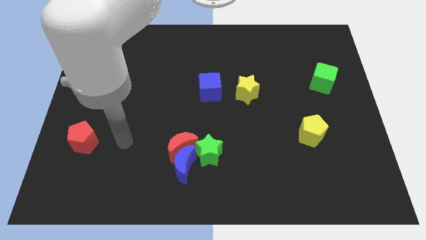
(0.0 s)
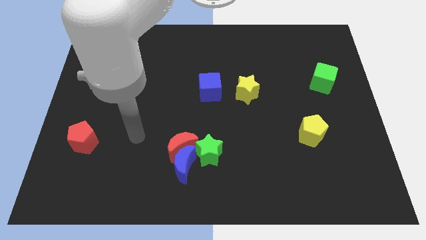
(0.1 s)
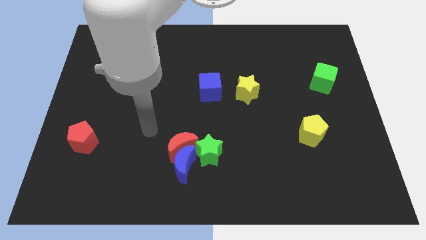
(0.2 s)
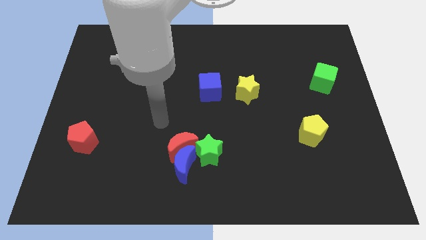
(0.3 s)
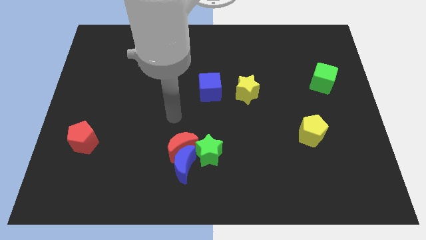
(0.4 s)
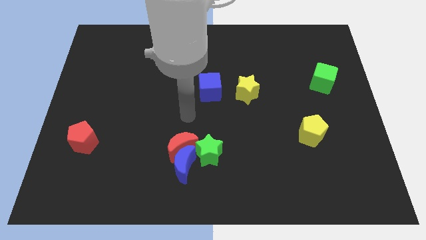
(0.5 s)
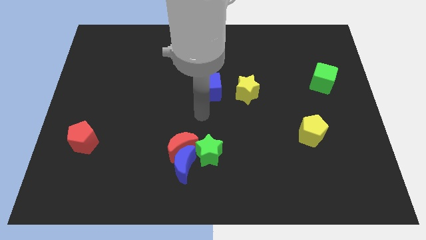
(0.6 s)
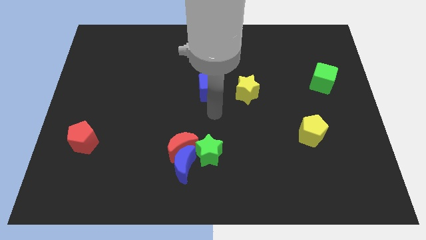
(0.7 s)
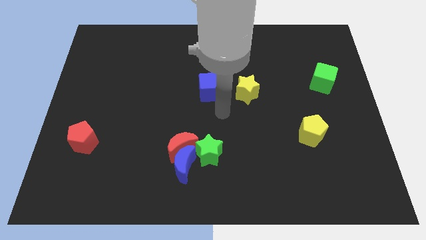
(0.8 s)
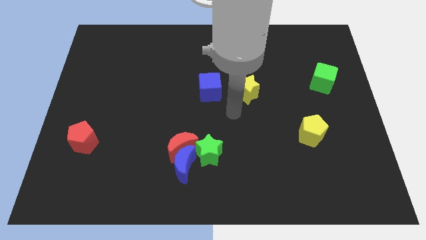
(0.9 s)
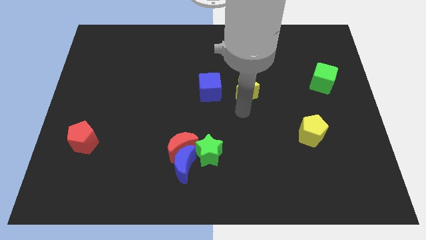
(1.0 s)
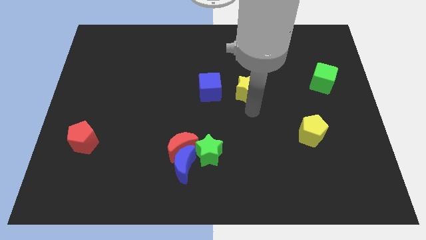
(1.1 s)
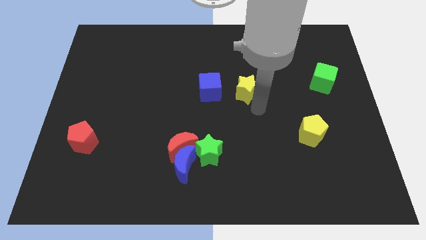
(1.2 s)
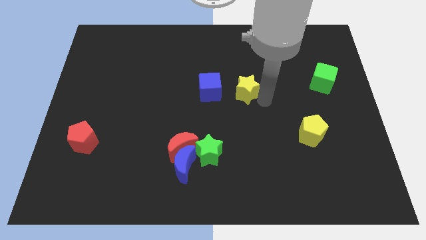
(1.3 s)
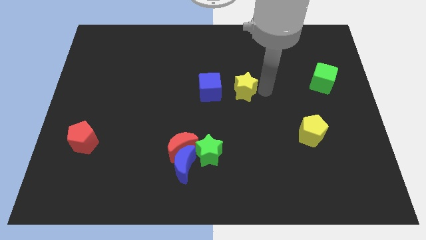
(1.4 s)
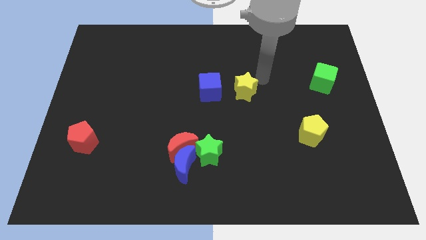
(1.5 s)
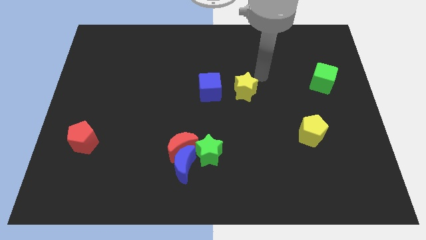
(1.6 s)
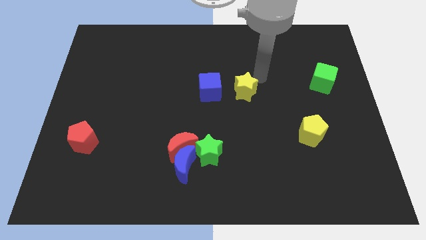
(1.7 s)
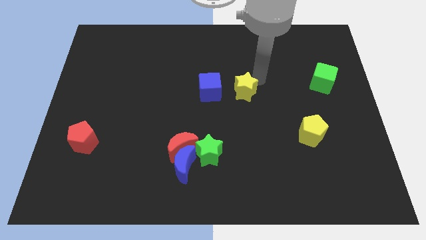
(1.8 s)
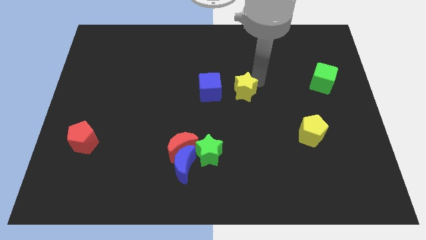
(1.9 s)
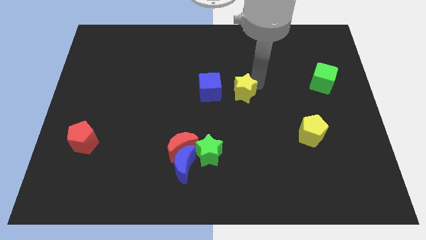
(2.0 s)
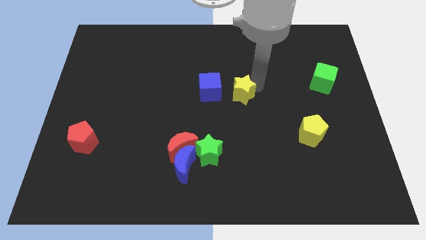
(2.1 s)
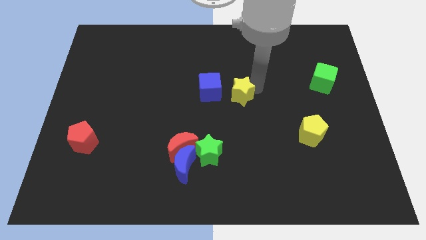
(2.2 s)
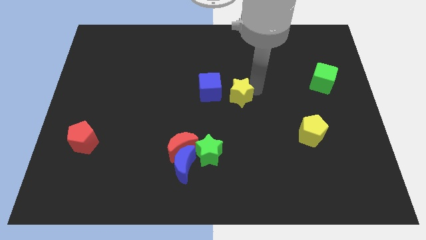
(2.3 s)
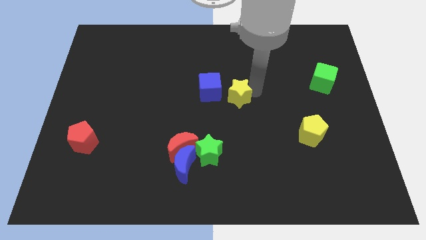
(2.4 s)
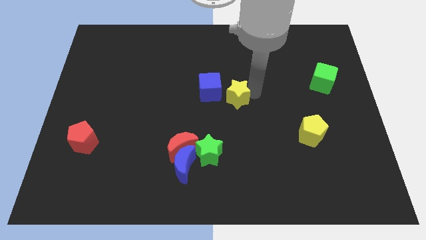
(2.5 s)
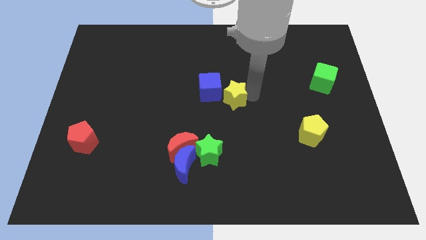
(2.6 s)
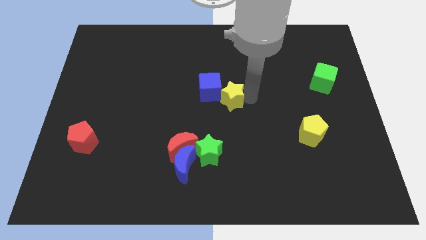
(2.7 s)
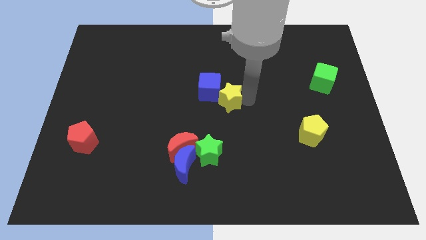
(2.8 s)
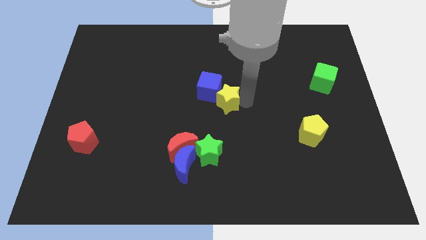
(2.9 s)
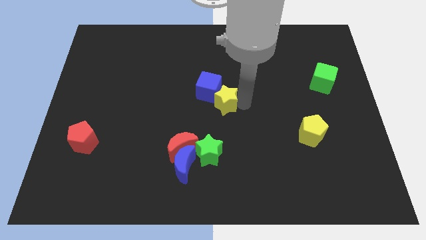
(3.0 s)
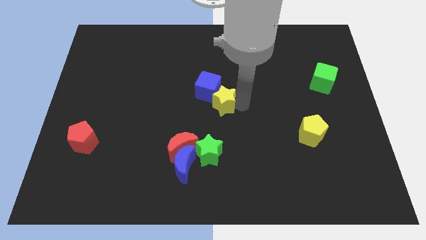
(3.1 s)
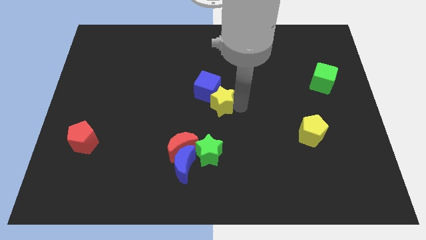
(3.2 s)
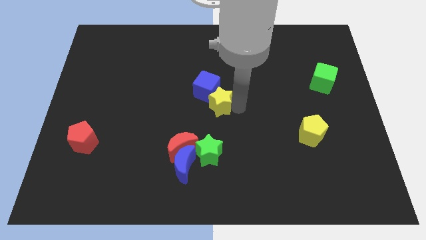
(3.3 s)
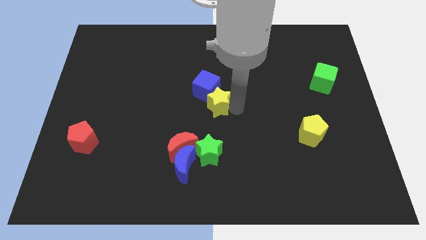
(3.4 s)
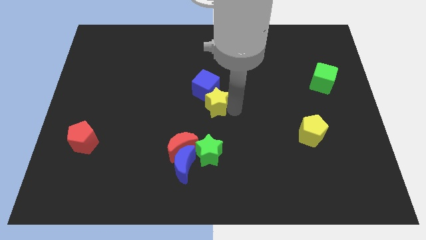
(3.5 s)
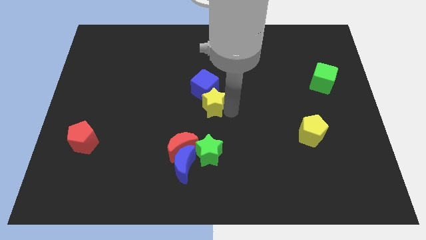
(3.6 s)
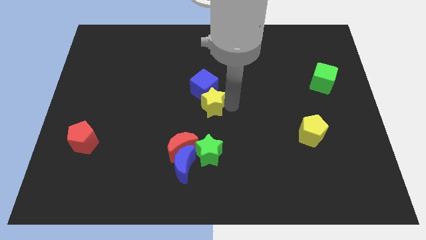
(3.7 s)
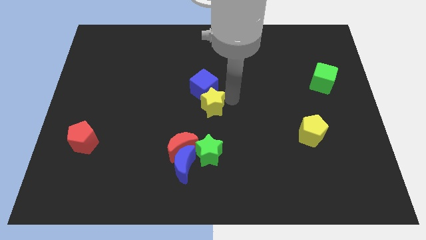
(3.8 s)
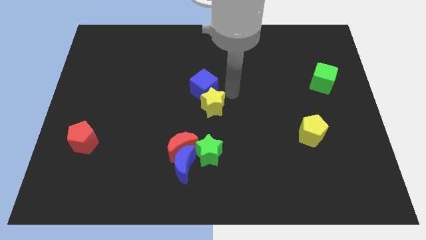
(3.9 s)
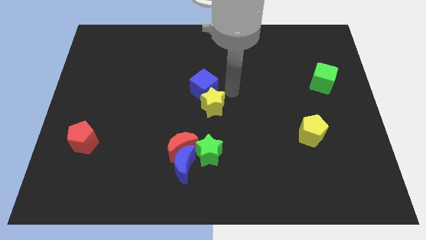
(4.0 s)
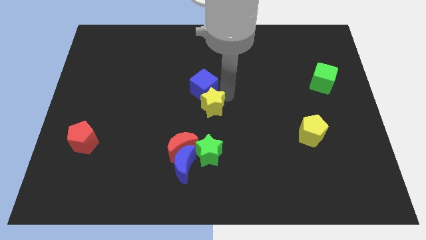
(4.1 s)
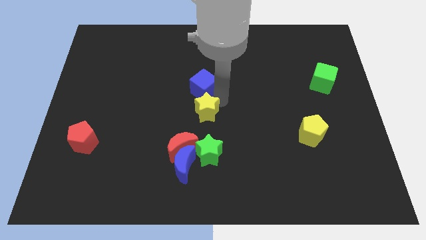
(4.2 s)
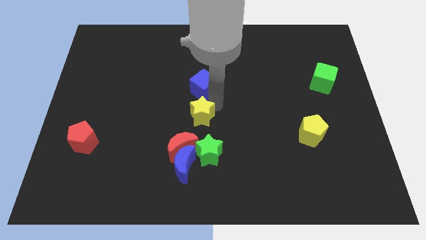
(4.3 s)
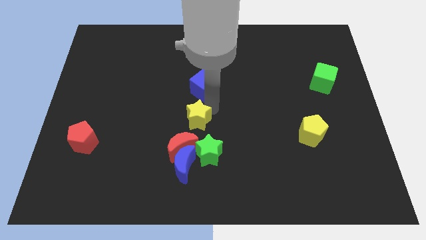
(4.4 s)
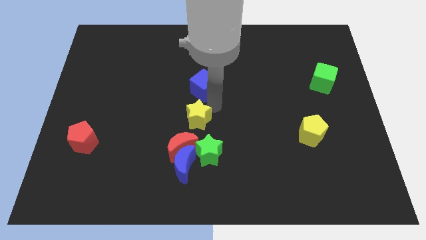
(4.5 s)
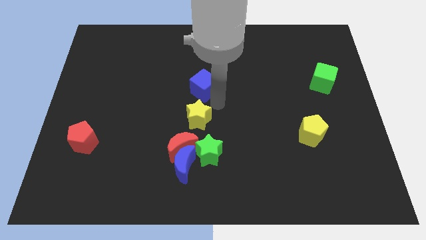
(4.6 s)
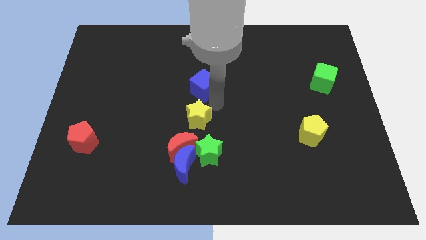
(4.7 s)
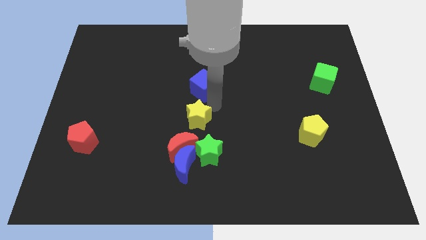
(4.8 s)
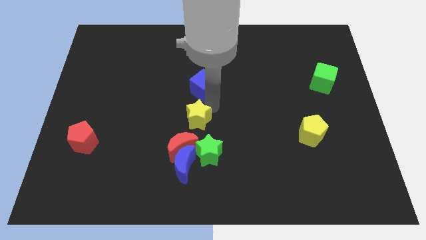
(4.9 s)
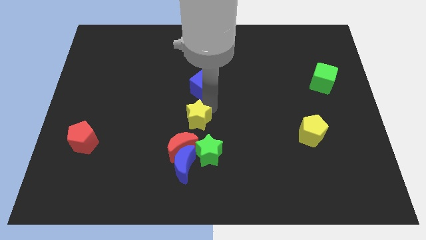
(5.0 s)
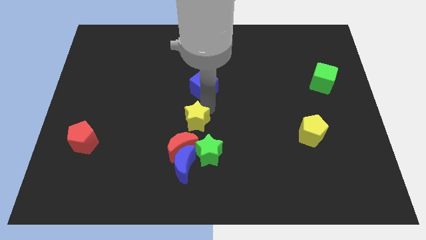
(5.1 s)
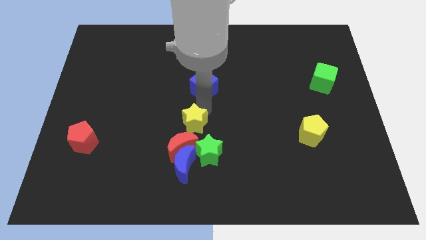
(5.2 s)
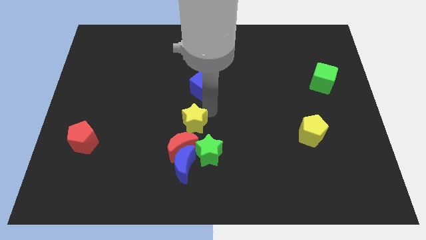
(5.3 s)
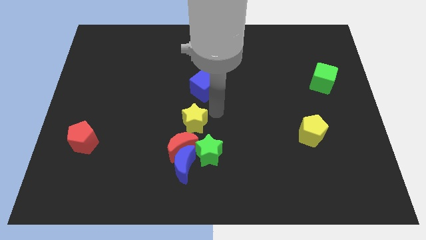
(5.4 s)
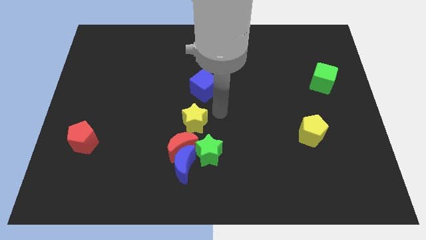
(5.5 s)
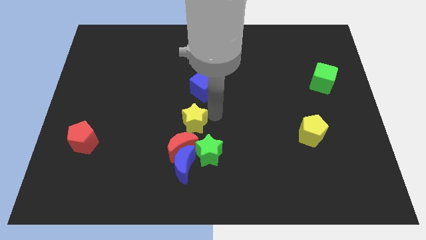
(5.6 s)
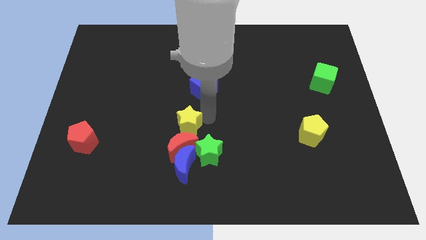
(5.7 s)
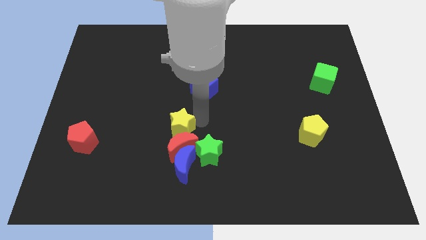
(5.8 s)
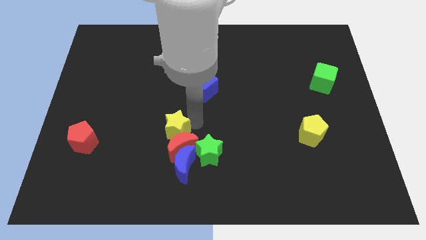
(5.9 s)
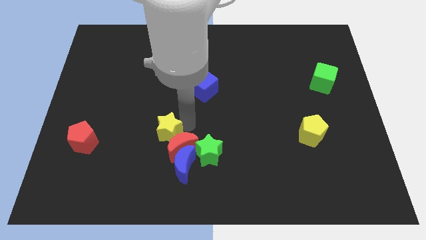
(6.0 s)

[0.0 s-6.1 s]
slide the yellow star downwards and left diagonally

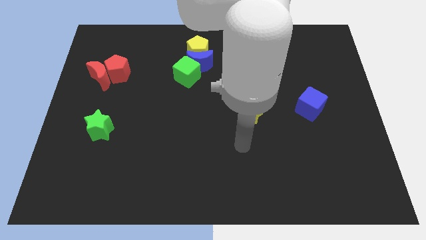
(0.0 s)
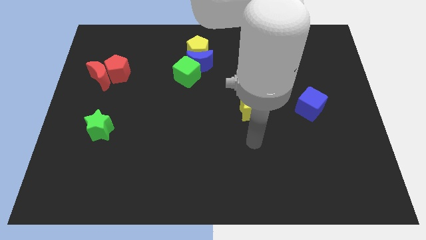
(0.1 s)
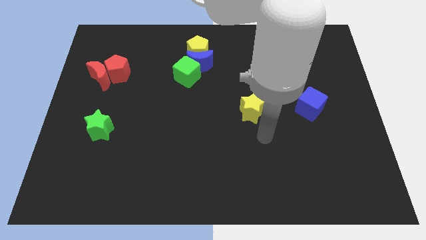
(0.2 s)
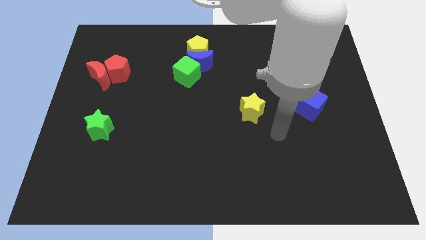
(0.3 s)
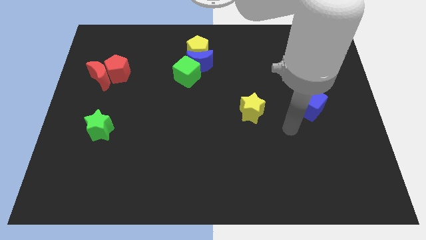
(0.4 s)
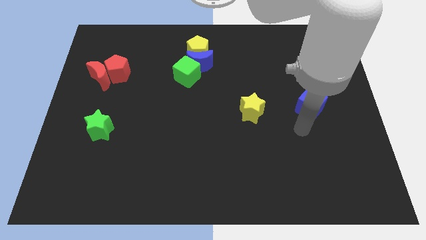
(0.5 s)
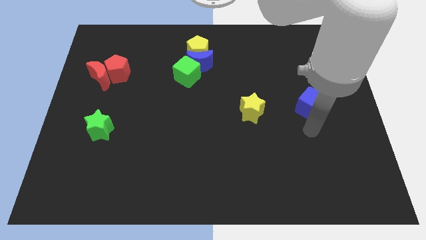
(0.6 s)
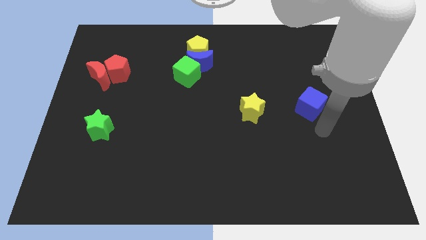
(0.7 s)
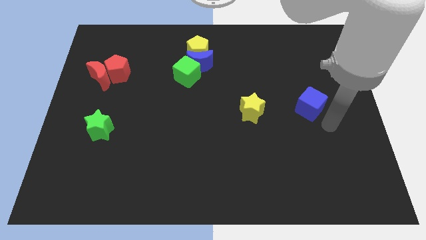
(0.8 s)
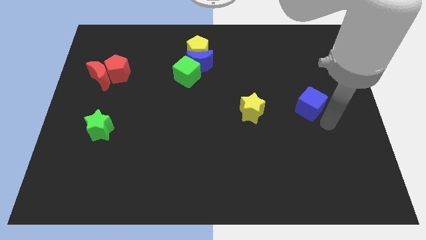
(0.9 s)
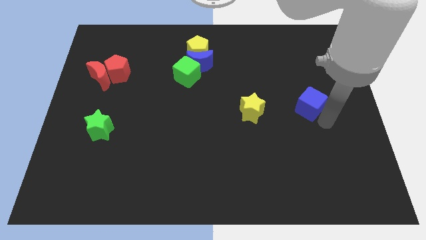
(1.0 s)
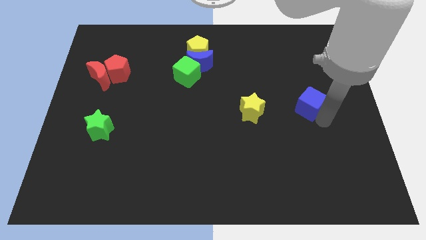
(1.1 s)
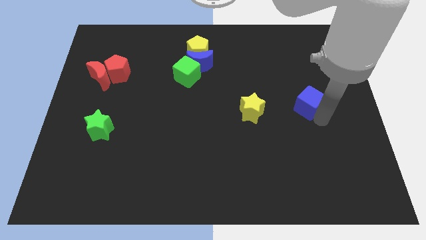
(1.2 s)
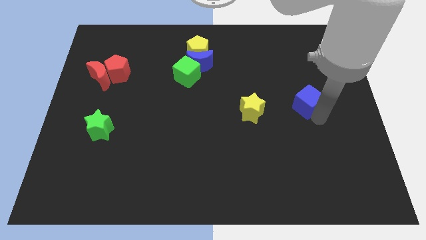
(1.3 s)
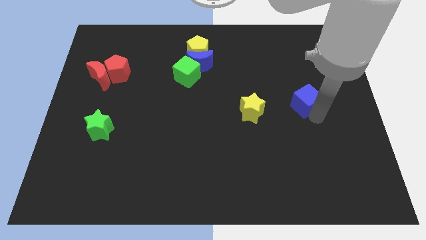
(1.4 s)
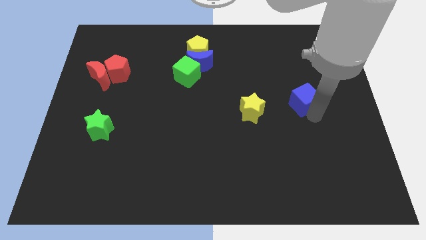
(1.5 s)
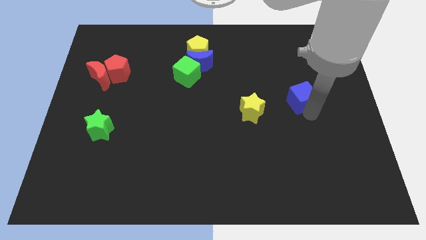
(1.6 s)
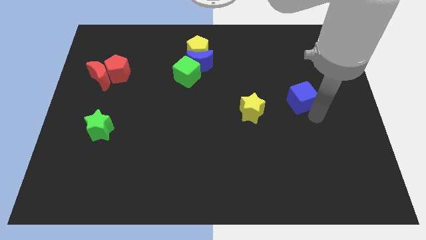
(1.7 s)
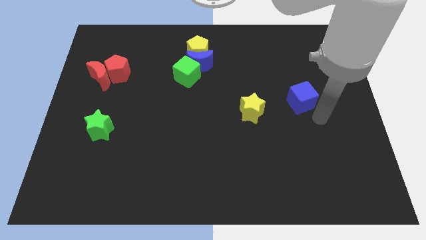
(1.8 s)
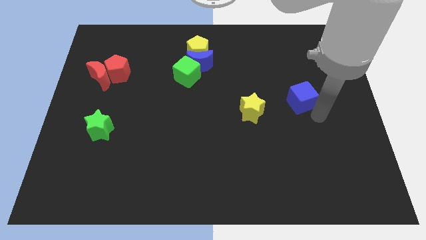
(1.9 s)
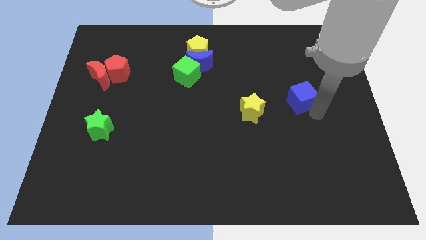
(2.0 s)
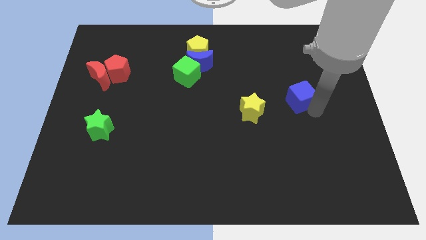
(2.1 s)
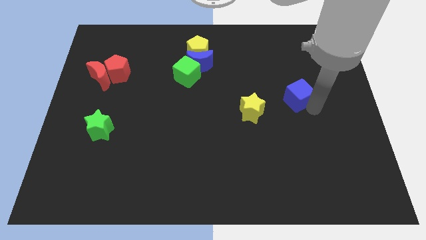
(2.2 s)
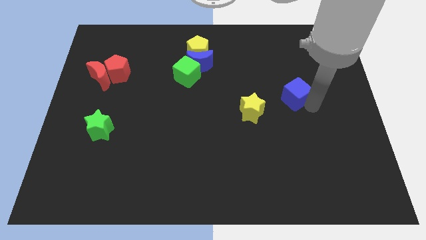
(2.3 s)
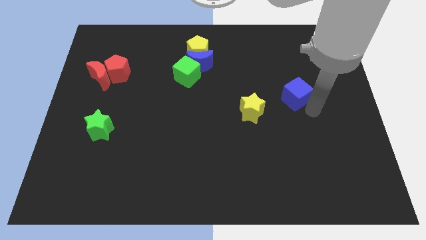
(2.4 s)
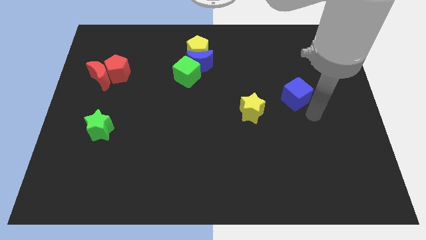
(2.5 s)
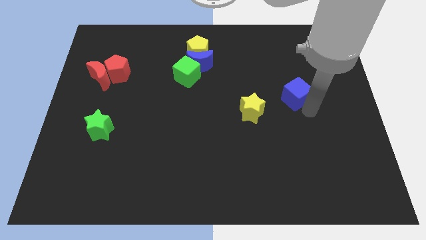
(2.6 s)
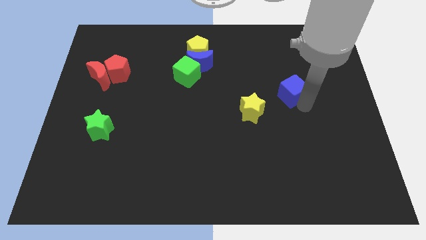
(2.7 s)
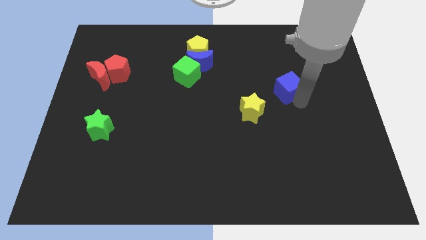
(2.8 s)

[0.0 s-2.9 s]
slide the blue cube diagonally up and left slightly
